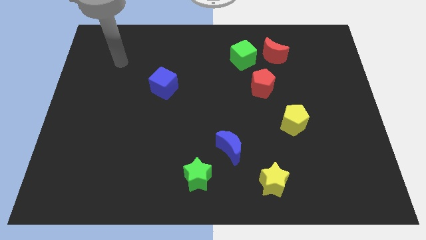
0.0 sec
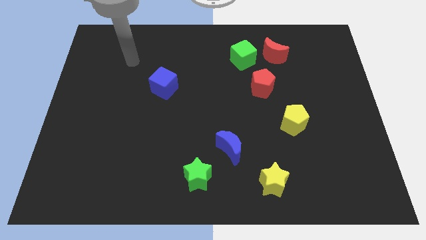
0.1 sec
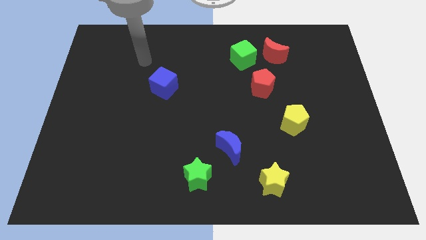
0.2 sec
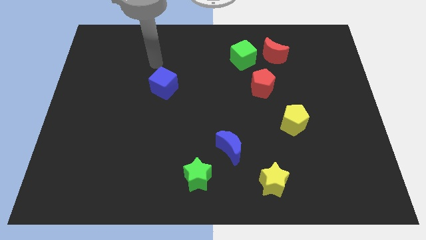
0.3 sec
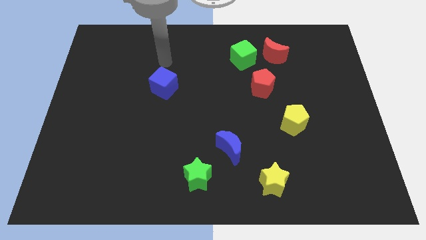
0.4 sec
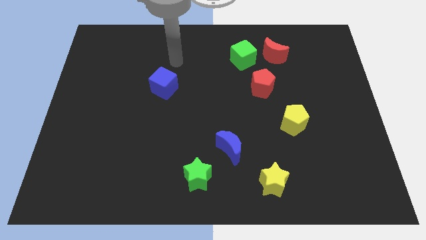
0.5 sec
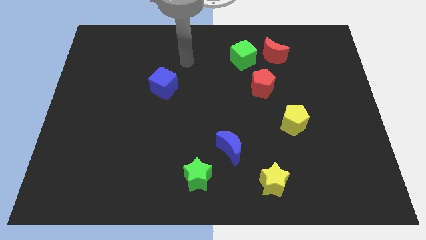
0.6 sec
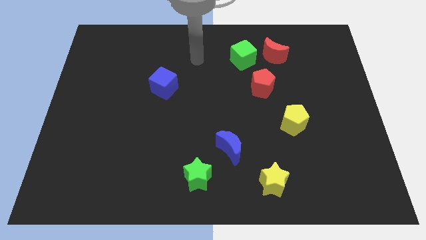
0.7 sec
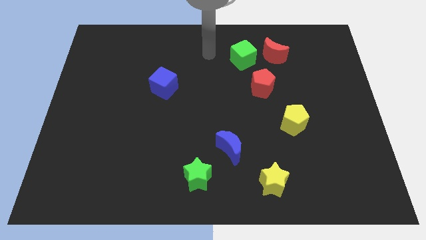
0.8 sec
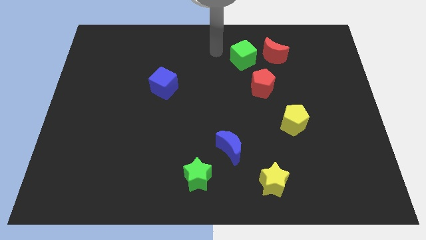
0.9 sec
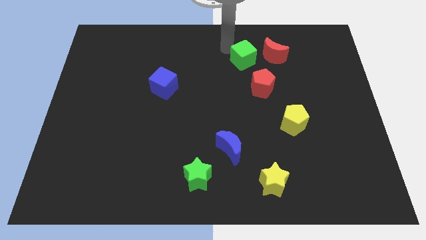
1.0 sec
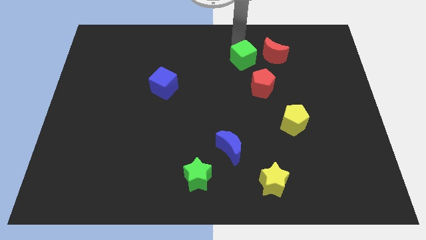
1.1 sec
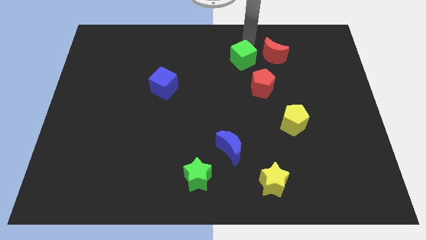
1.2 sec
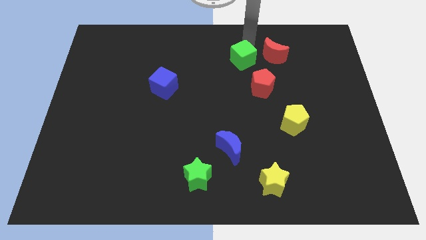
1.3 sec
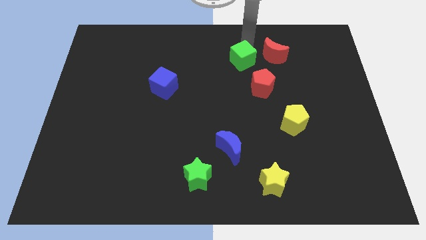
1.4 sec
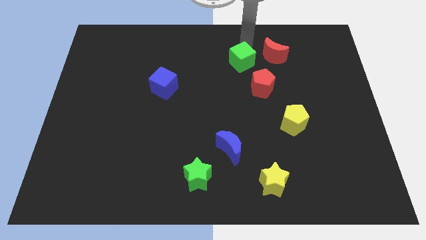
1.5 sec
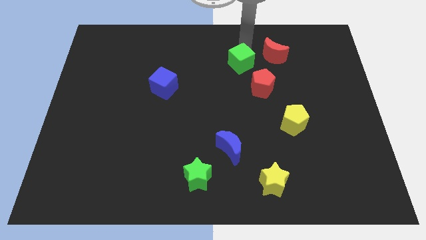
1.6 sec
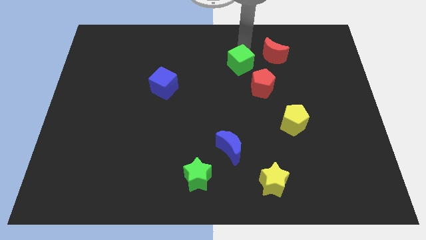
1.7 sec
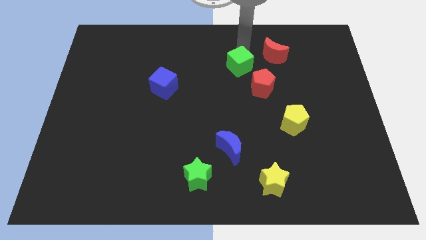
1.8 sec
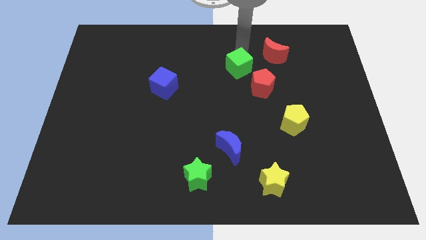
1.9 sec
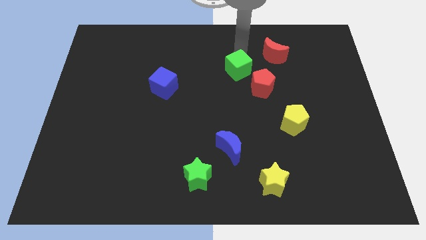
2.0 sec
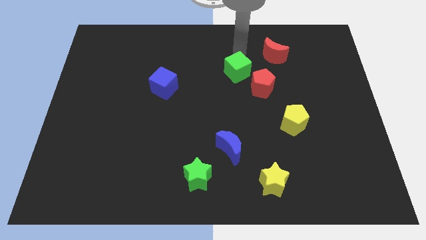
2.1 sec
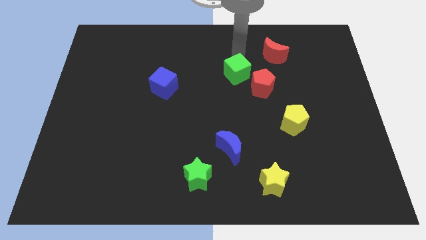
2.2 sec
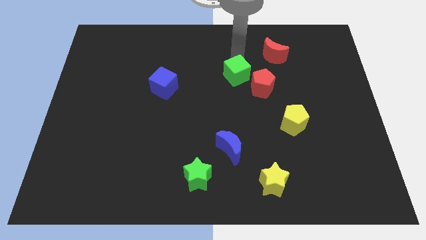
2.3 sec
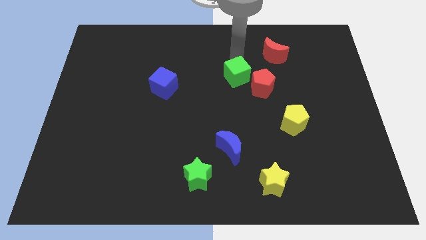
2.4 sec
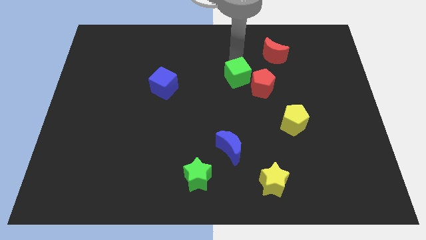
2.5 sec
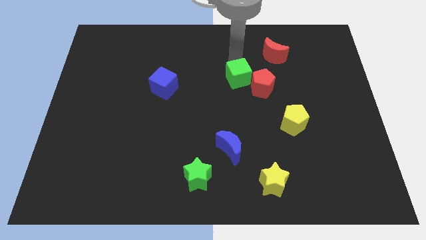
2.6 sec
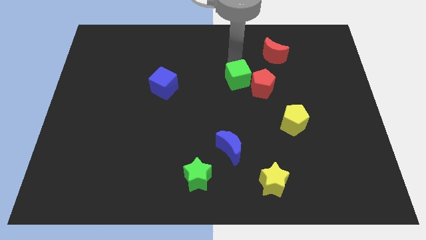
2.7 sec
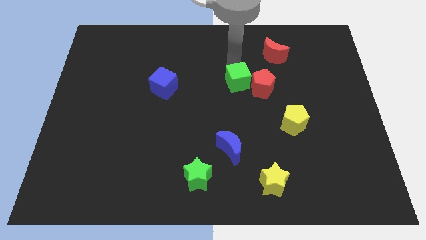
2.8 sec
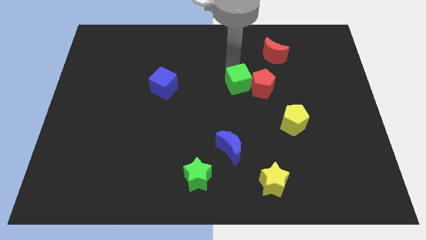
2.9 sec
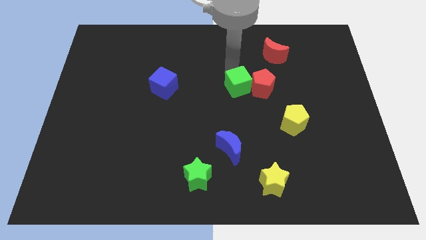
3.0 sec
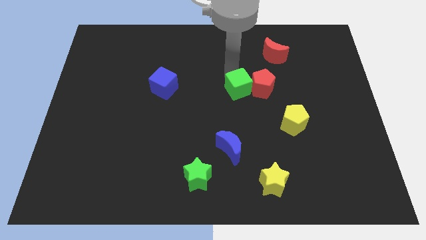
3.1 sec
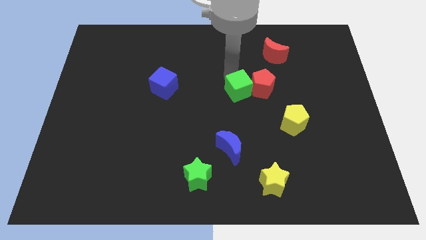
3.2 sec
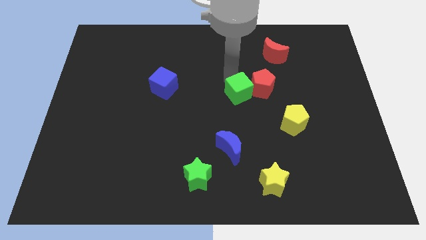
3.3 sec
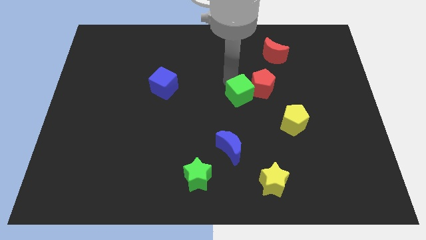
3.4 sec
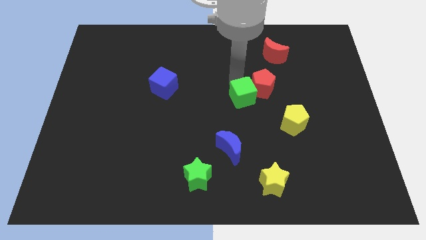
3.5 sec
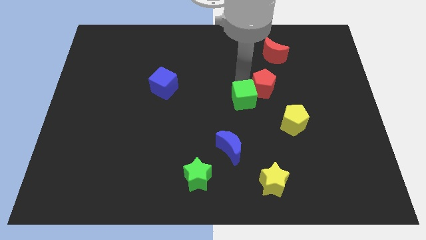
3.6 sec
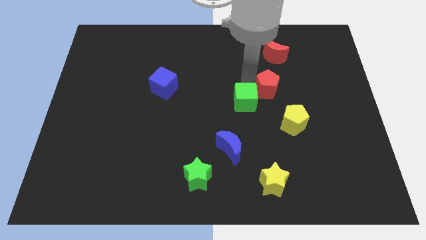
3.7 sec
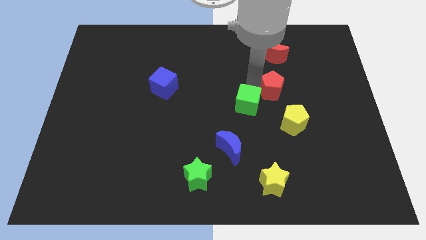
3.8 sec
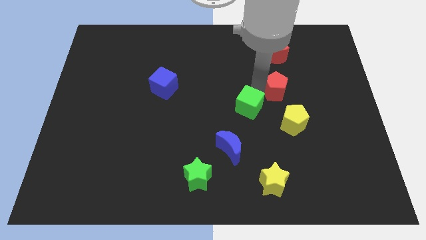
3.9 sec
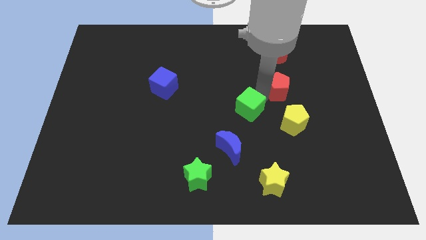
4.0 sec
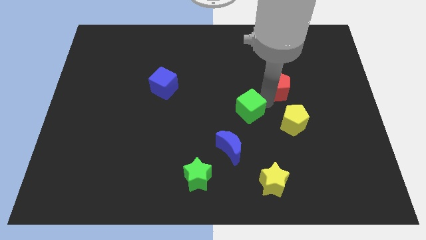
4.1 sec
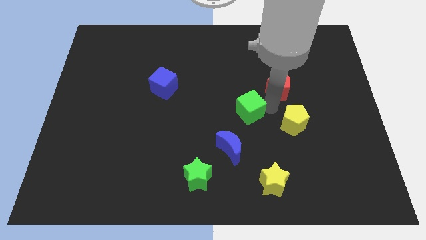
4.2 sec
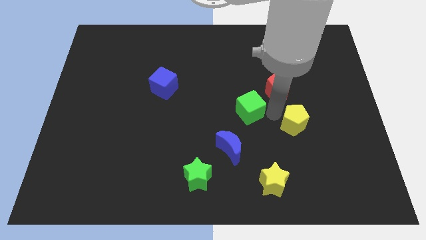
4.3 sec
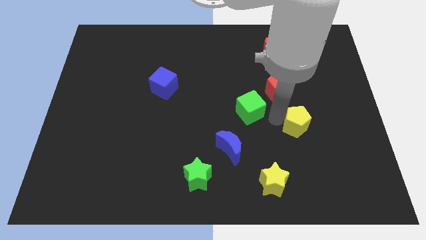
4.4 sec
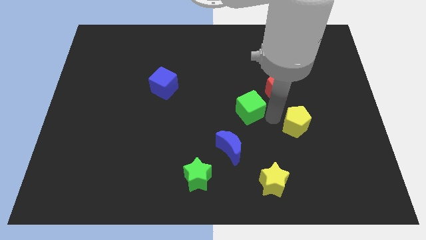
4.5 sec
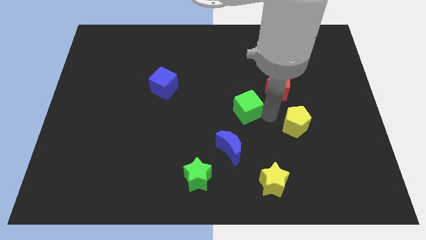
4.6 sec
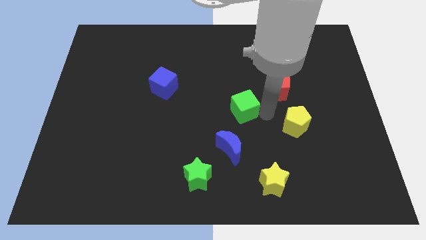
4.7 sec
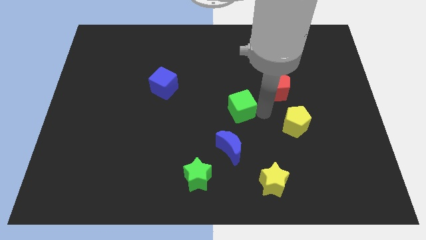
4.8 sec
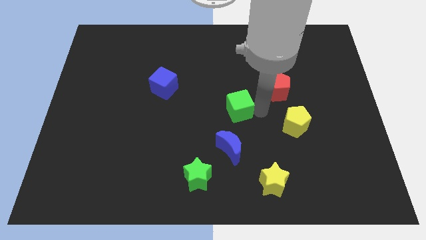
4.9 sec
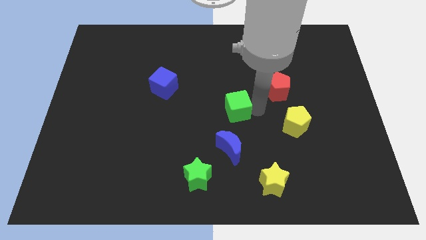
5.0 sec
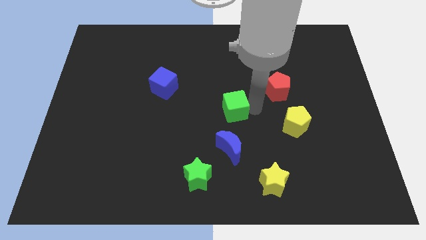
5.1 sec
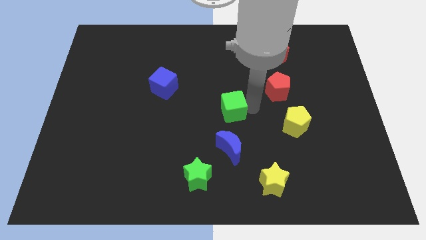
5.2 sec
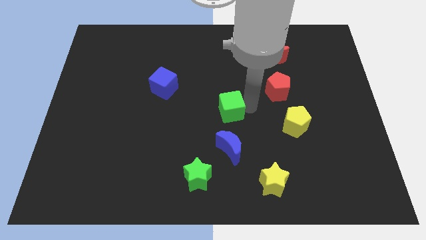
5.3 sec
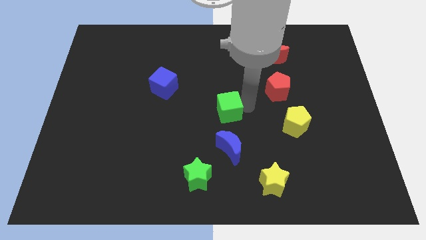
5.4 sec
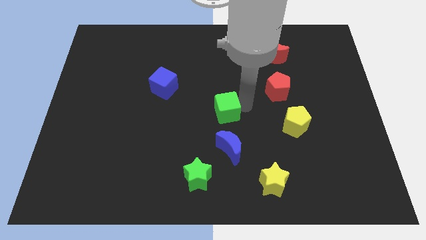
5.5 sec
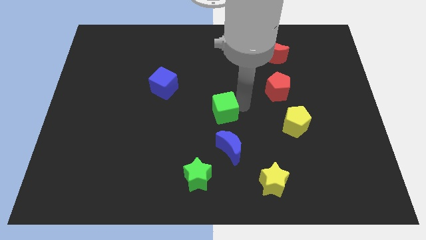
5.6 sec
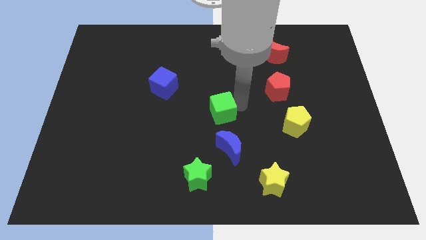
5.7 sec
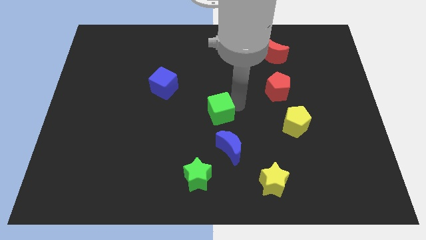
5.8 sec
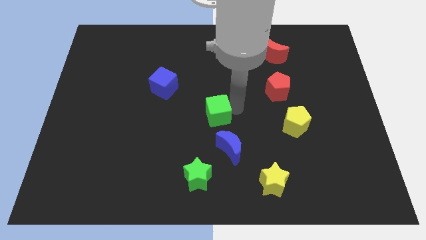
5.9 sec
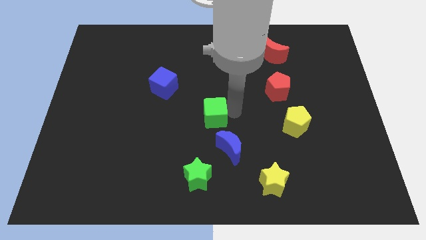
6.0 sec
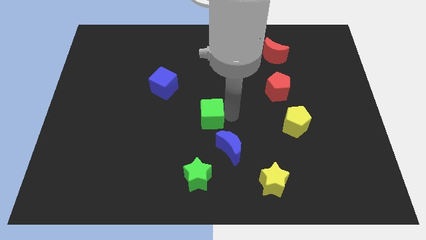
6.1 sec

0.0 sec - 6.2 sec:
put the green cube to the top of the green star

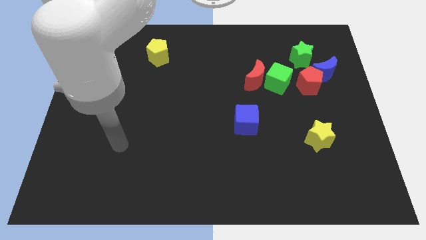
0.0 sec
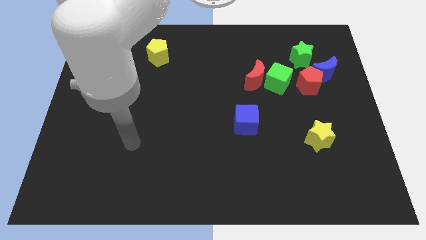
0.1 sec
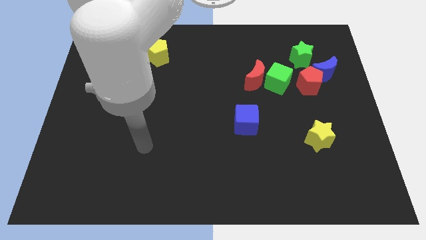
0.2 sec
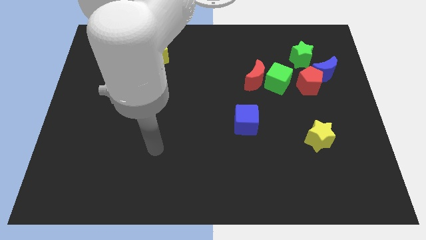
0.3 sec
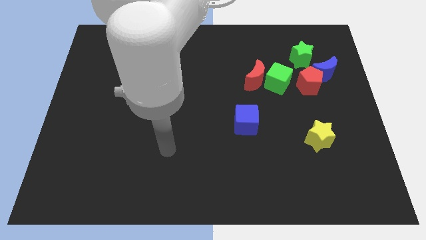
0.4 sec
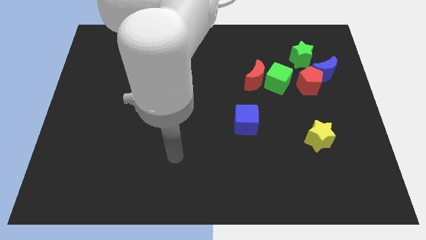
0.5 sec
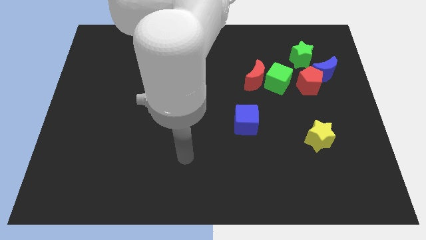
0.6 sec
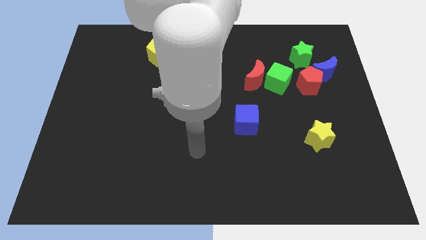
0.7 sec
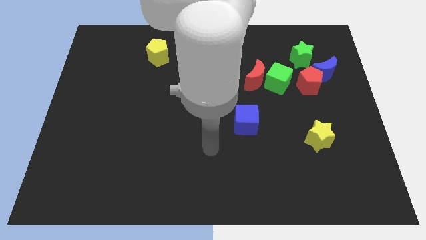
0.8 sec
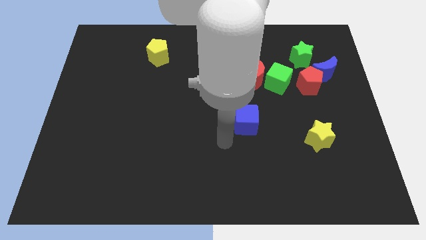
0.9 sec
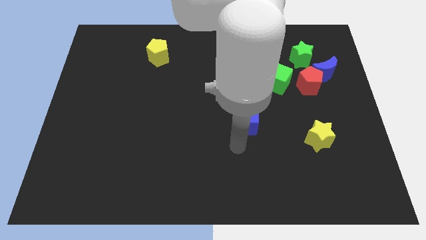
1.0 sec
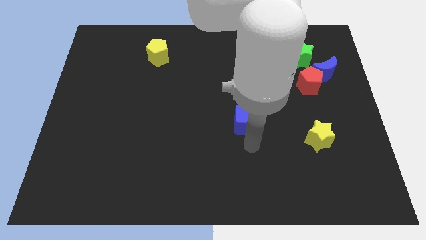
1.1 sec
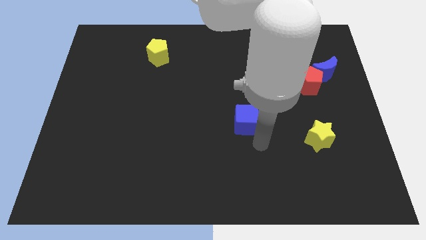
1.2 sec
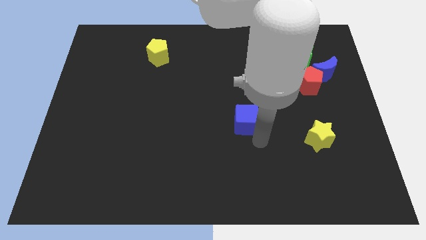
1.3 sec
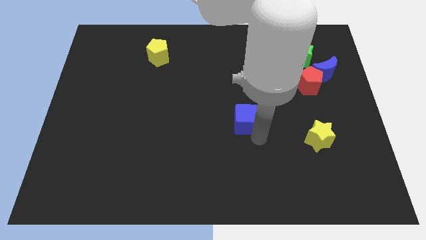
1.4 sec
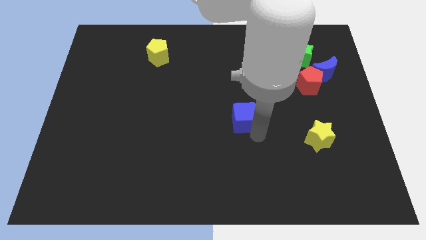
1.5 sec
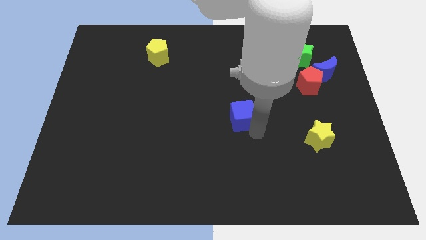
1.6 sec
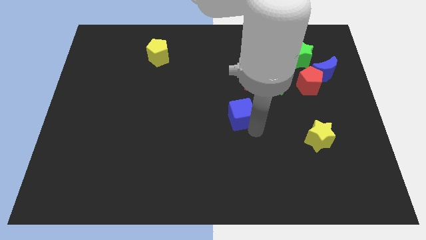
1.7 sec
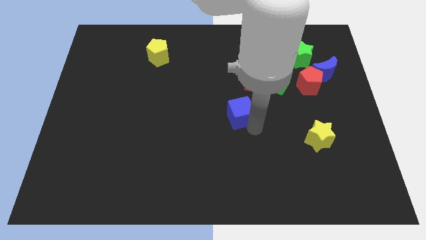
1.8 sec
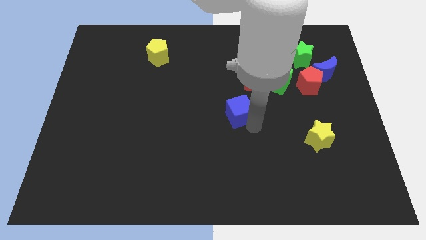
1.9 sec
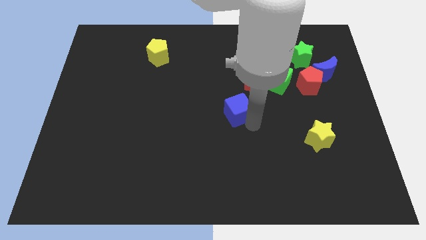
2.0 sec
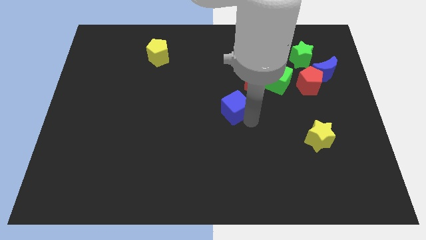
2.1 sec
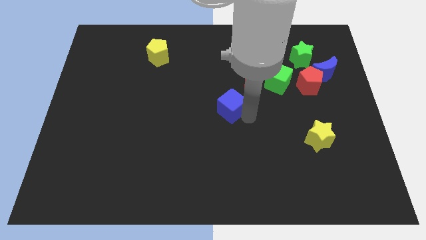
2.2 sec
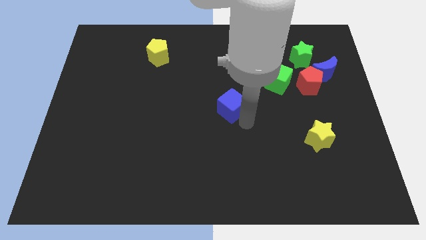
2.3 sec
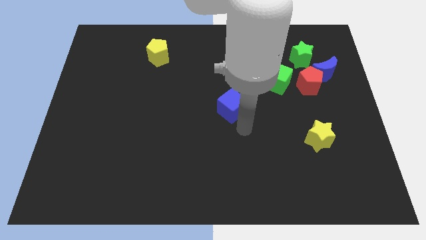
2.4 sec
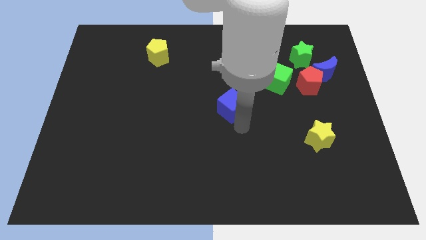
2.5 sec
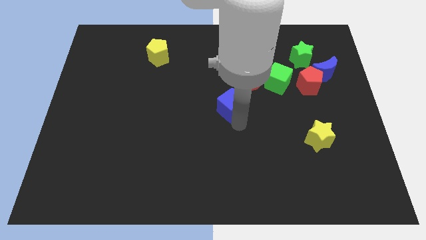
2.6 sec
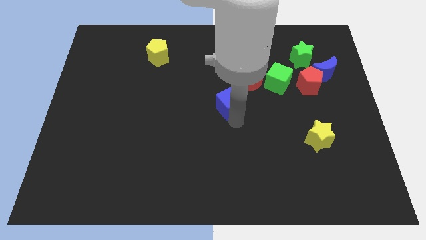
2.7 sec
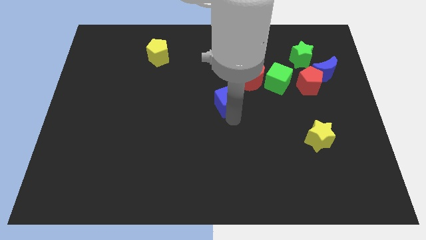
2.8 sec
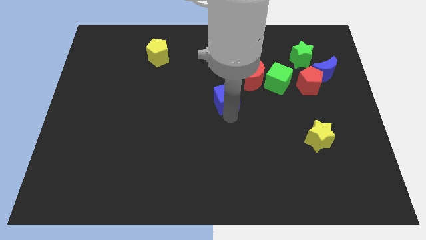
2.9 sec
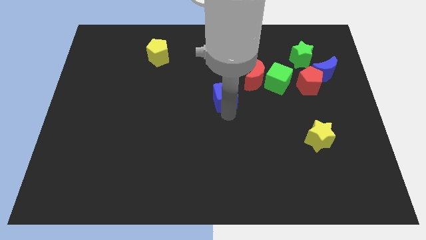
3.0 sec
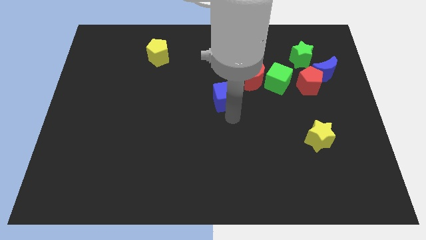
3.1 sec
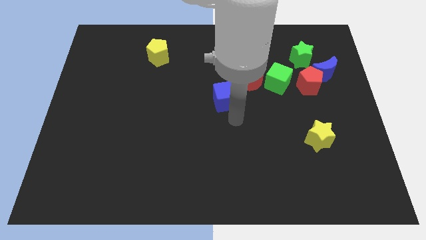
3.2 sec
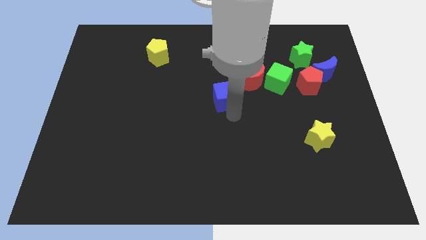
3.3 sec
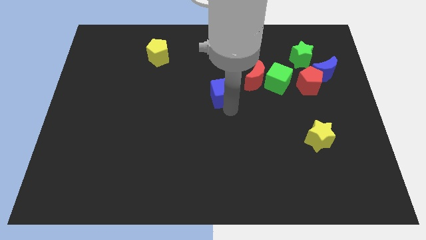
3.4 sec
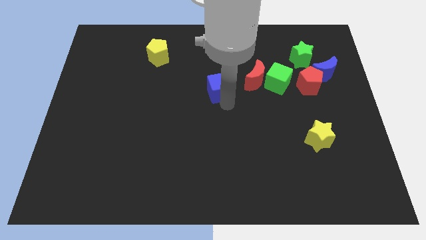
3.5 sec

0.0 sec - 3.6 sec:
put the blue cube to the left side of the red moon
